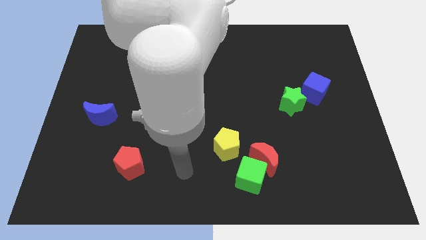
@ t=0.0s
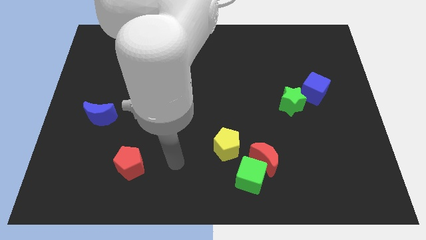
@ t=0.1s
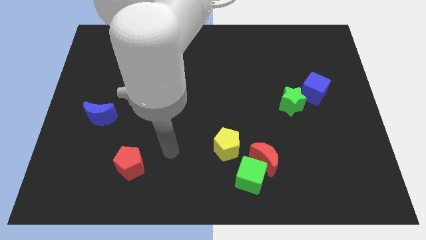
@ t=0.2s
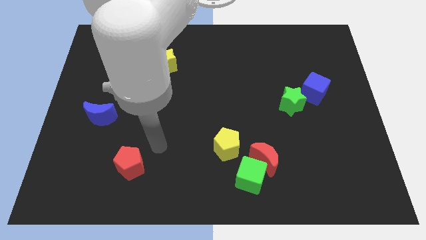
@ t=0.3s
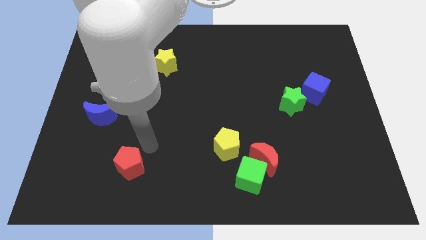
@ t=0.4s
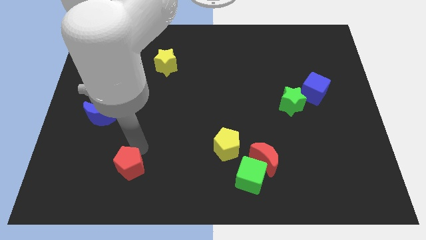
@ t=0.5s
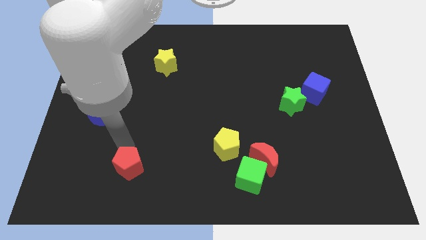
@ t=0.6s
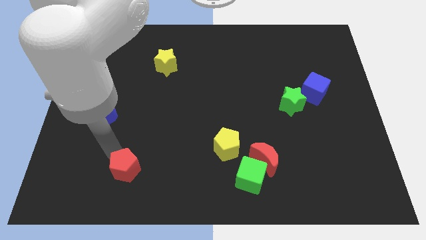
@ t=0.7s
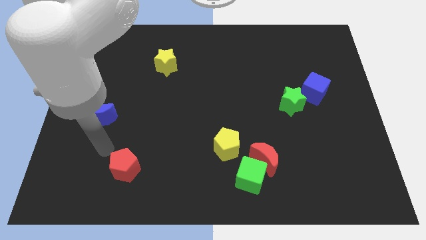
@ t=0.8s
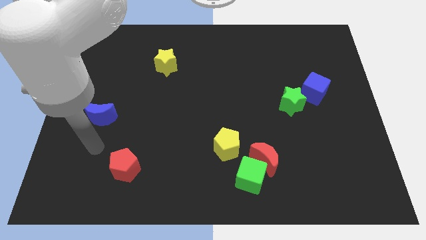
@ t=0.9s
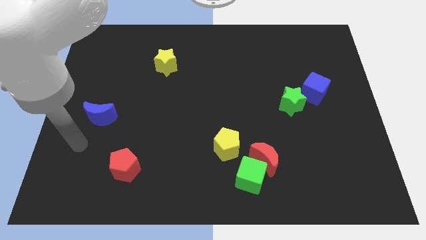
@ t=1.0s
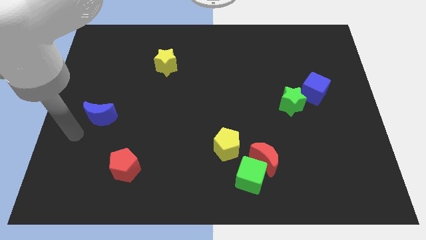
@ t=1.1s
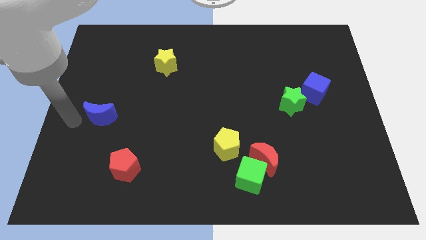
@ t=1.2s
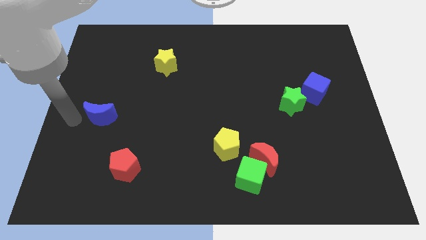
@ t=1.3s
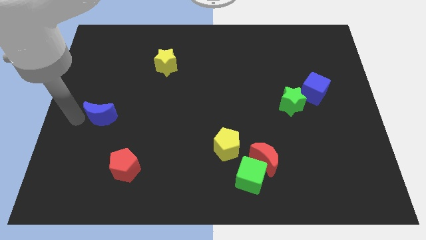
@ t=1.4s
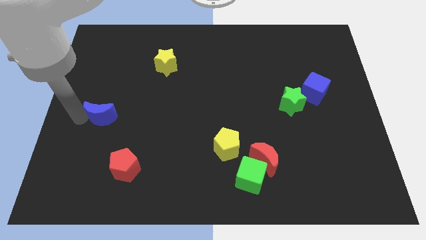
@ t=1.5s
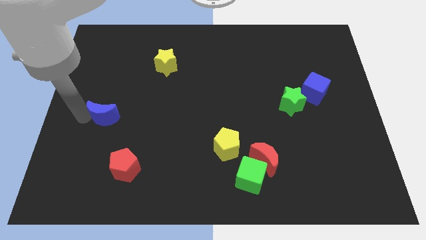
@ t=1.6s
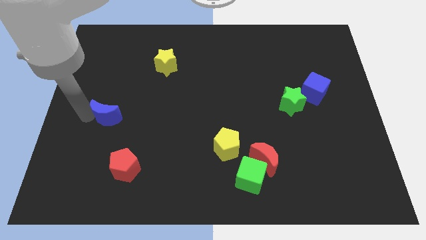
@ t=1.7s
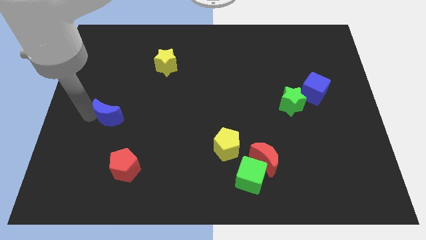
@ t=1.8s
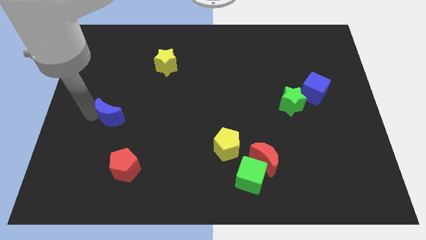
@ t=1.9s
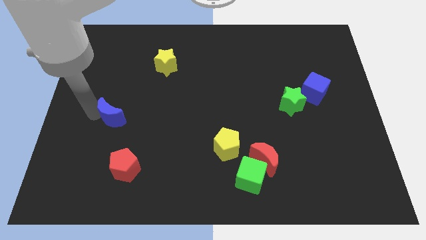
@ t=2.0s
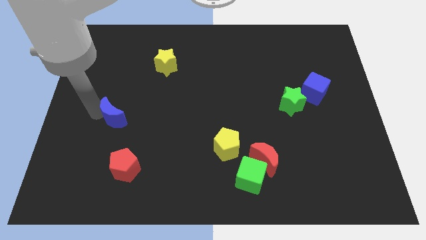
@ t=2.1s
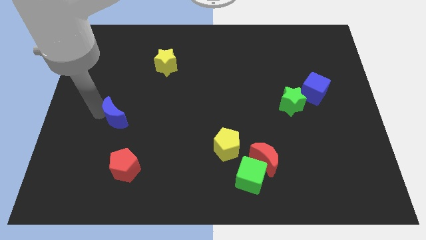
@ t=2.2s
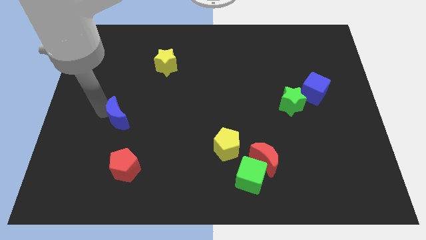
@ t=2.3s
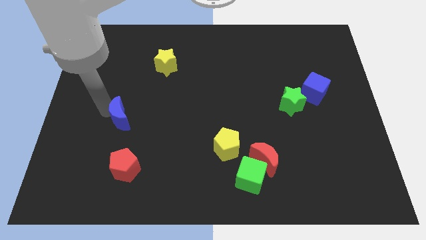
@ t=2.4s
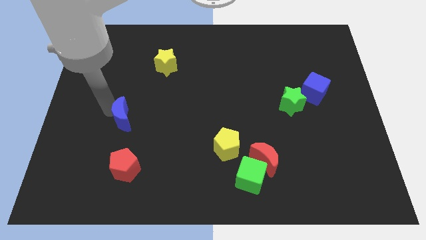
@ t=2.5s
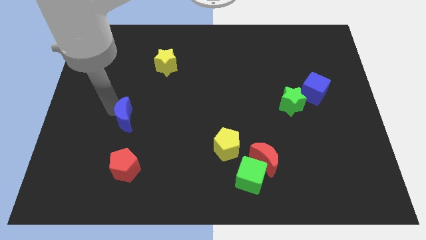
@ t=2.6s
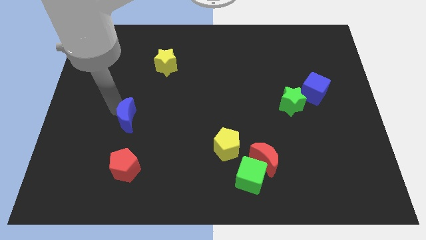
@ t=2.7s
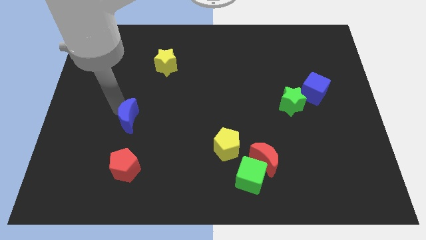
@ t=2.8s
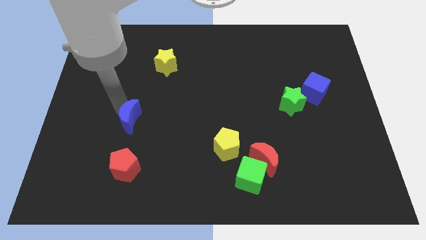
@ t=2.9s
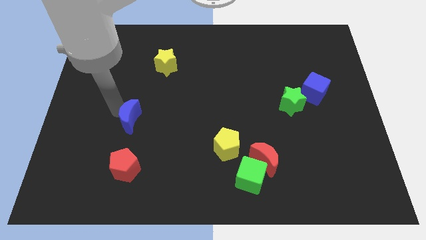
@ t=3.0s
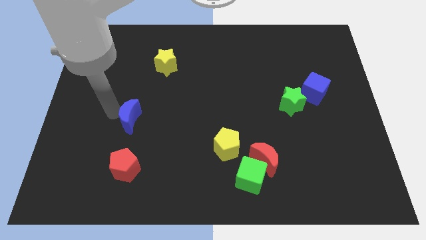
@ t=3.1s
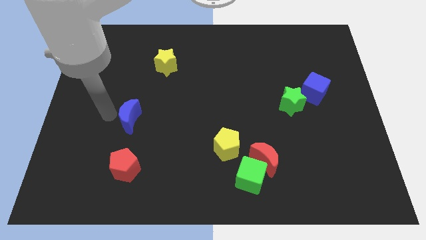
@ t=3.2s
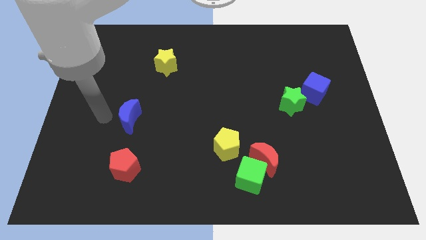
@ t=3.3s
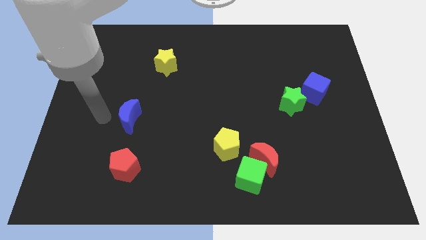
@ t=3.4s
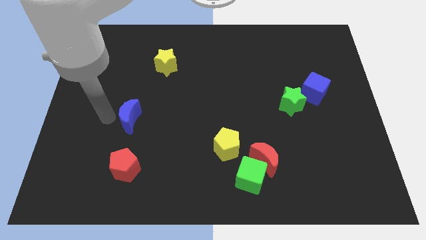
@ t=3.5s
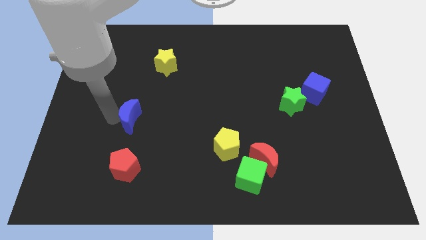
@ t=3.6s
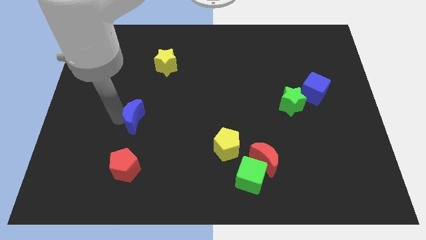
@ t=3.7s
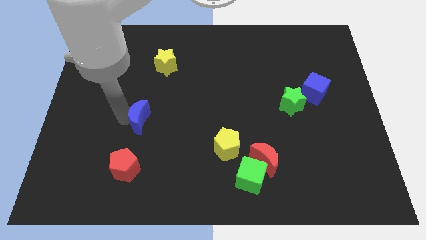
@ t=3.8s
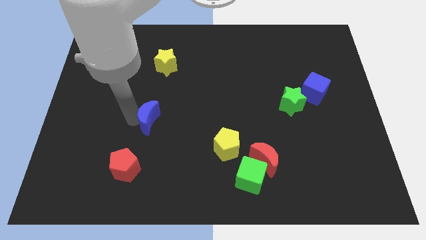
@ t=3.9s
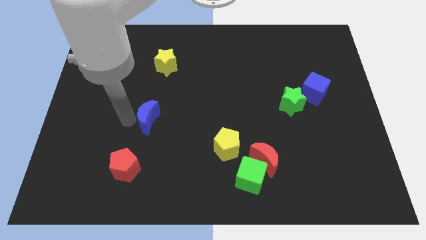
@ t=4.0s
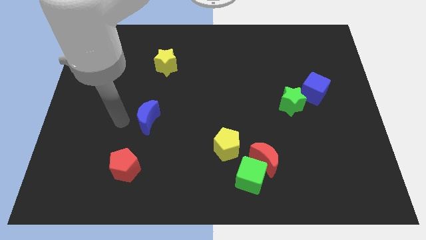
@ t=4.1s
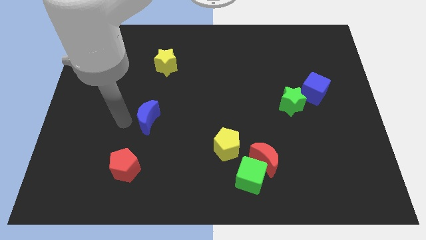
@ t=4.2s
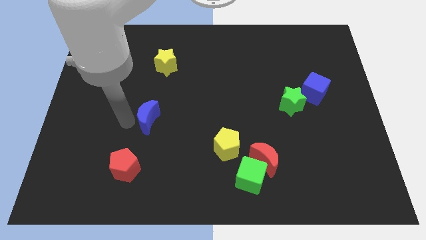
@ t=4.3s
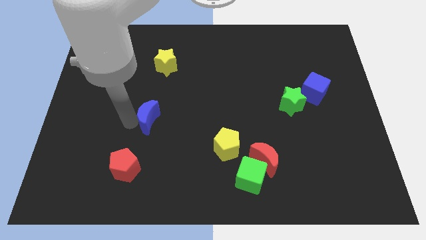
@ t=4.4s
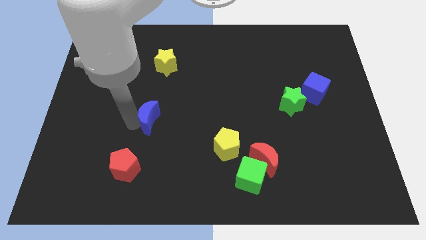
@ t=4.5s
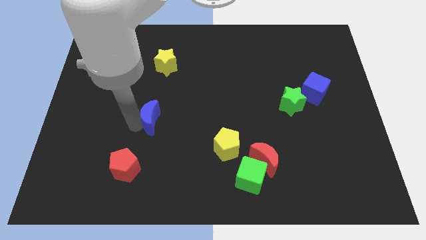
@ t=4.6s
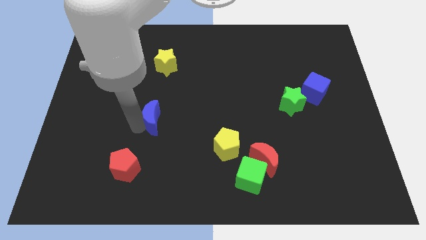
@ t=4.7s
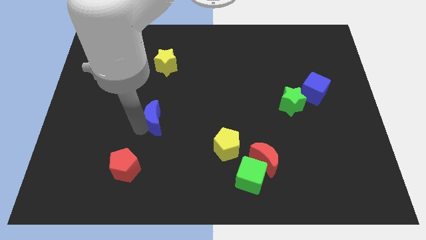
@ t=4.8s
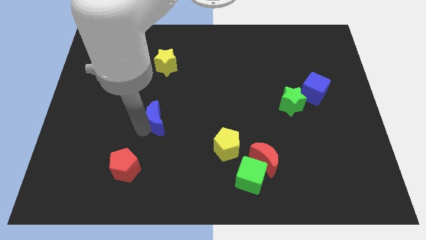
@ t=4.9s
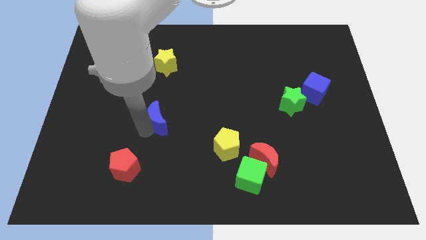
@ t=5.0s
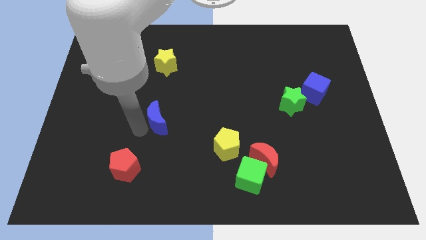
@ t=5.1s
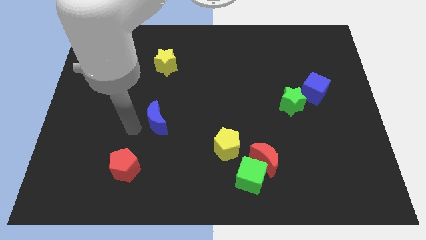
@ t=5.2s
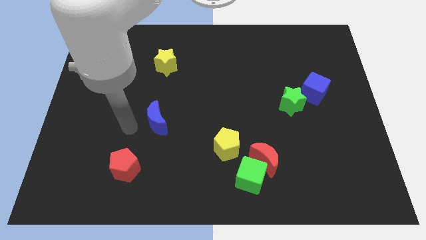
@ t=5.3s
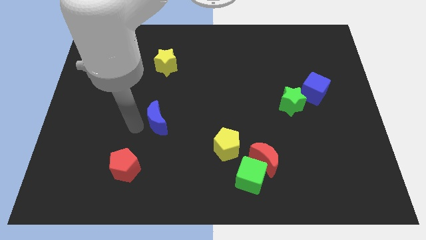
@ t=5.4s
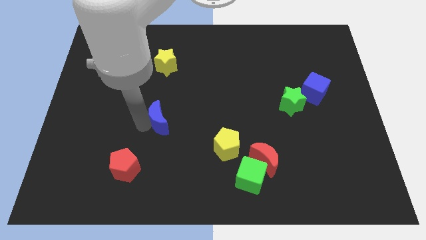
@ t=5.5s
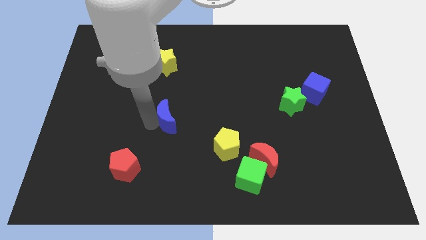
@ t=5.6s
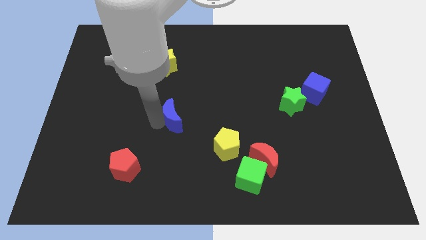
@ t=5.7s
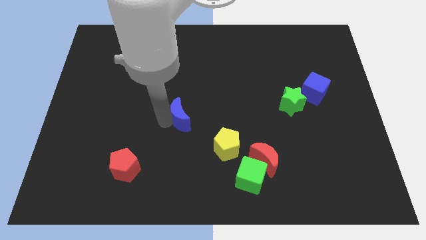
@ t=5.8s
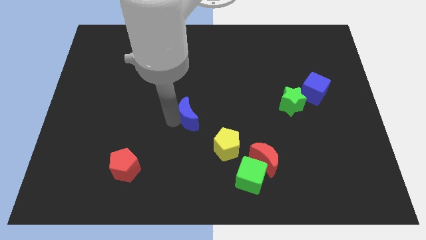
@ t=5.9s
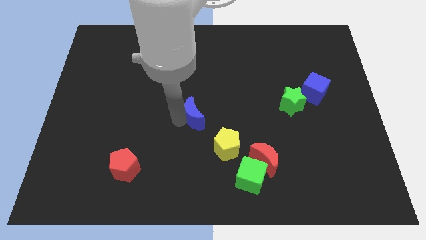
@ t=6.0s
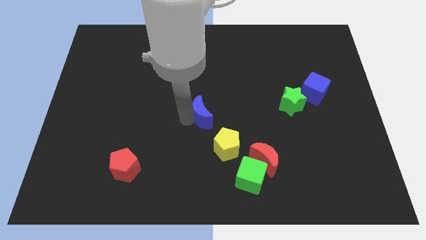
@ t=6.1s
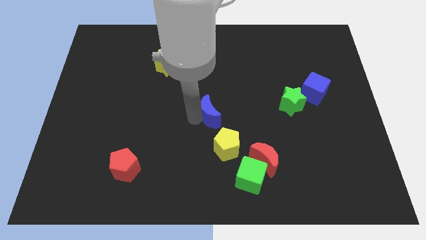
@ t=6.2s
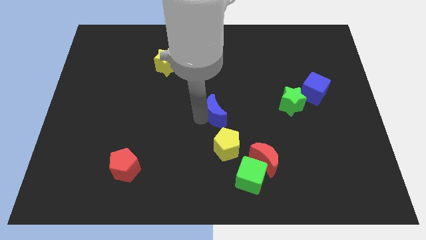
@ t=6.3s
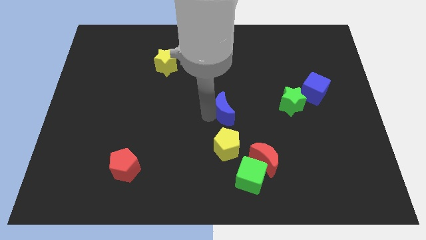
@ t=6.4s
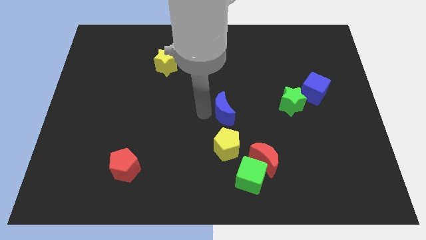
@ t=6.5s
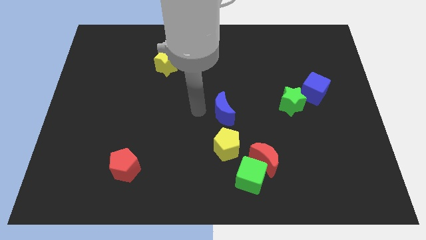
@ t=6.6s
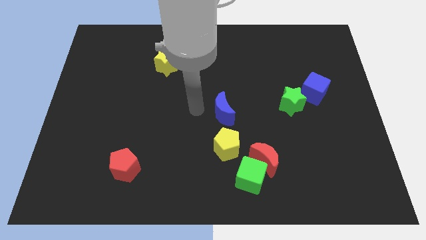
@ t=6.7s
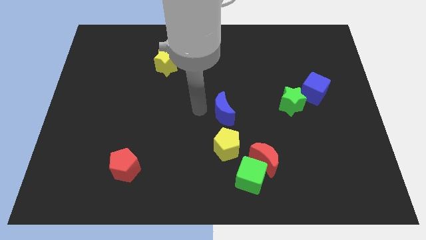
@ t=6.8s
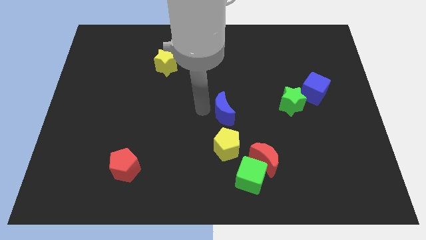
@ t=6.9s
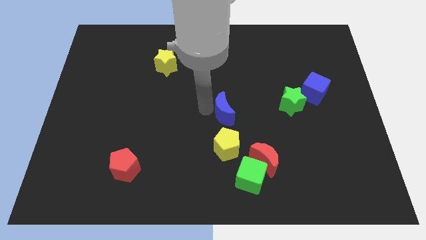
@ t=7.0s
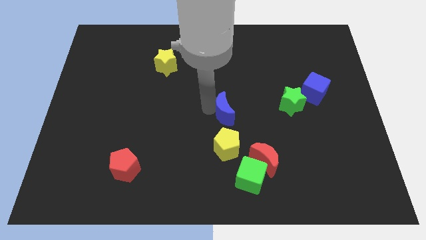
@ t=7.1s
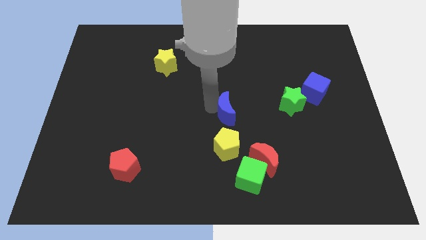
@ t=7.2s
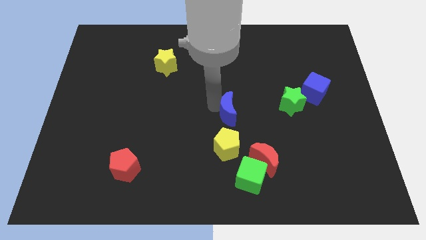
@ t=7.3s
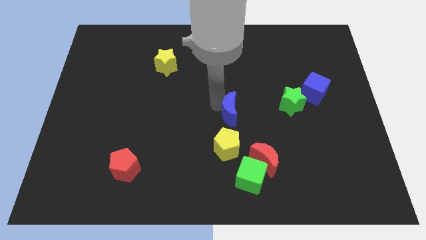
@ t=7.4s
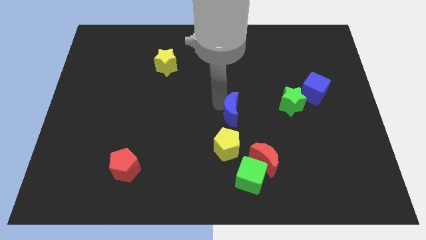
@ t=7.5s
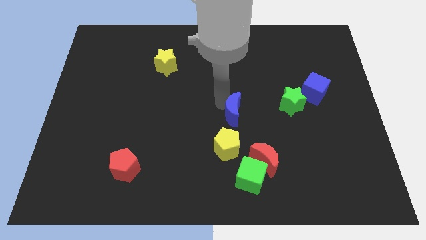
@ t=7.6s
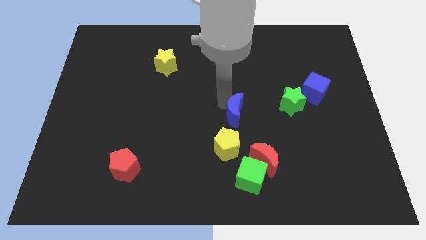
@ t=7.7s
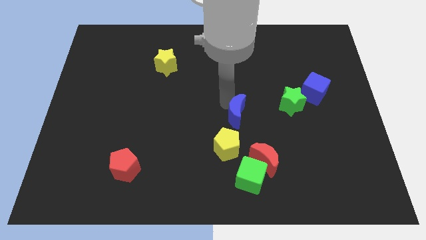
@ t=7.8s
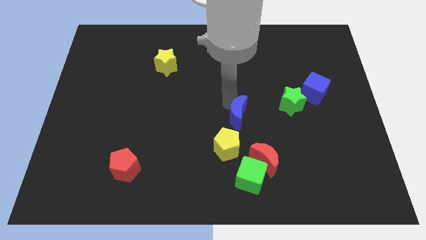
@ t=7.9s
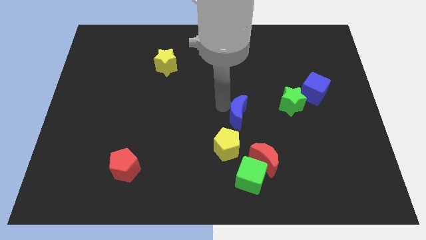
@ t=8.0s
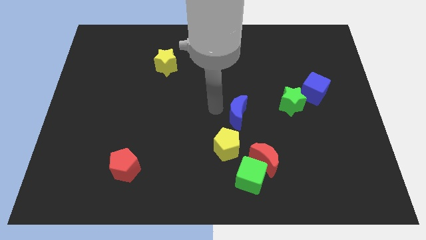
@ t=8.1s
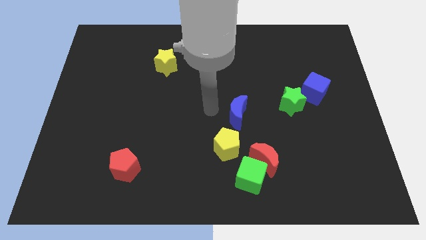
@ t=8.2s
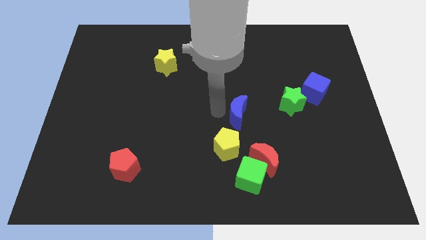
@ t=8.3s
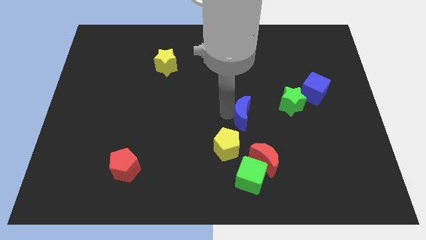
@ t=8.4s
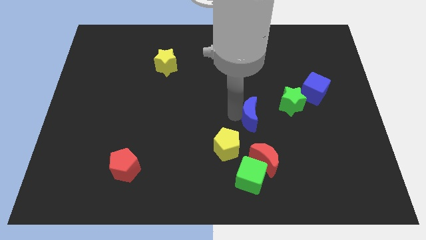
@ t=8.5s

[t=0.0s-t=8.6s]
slide the blue moon to the bottom left side of the green star
